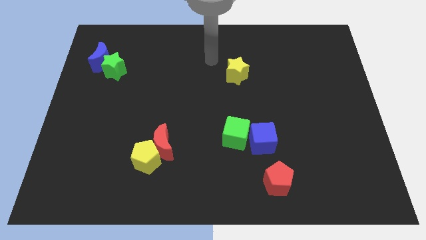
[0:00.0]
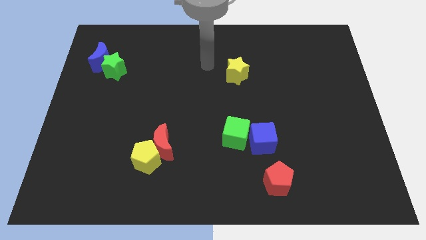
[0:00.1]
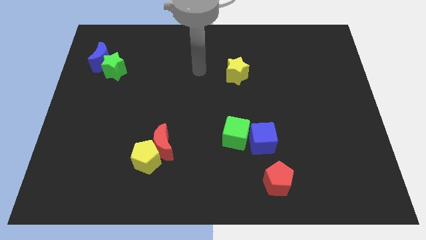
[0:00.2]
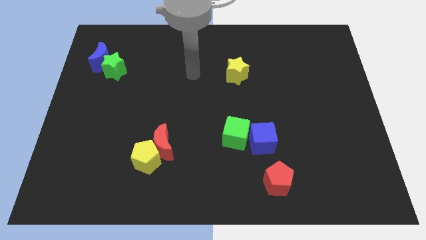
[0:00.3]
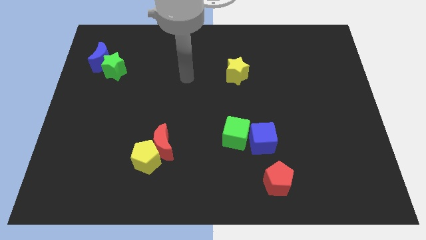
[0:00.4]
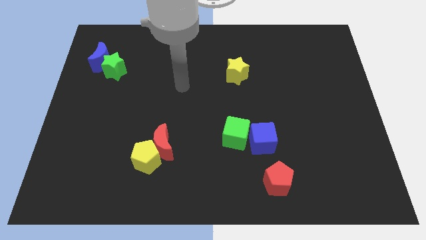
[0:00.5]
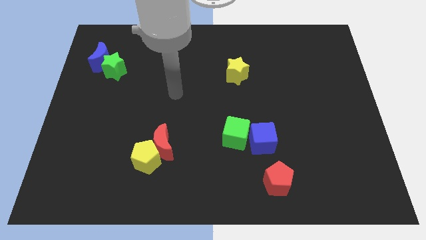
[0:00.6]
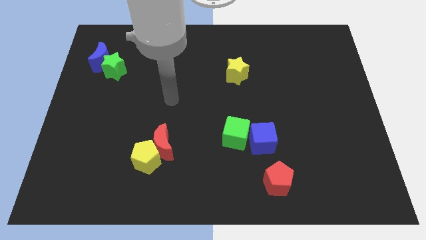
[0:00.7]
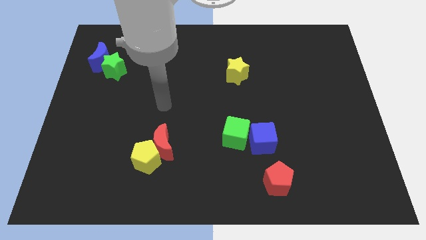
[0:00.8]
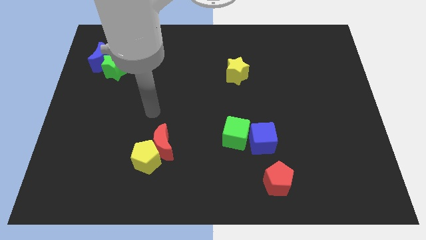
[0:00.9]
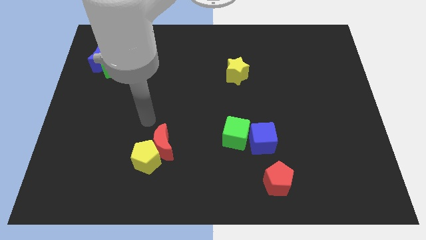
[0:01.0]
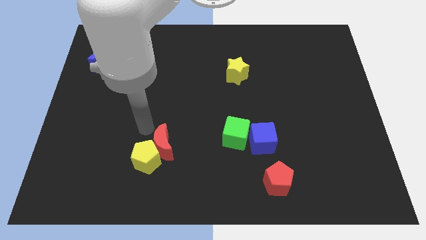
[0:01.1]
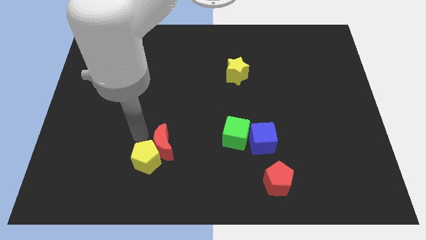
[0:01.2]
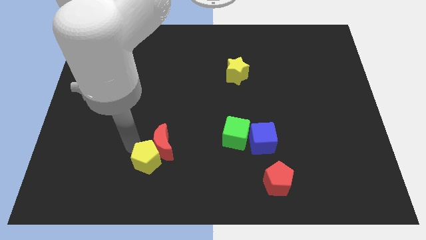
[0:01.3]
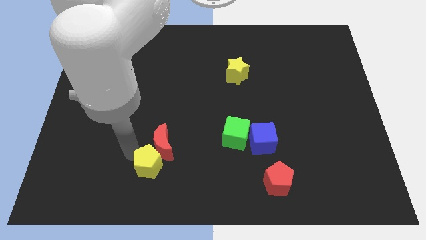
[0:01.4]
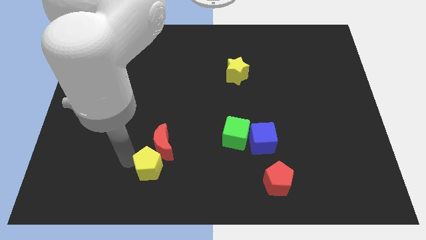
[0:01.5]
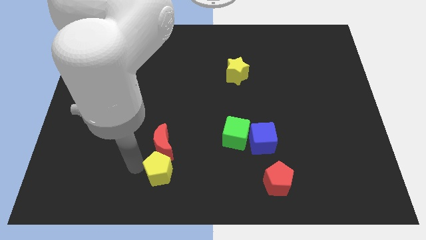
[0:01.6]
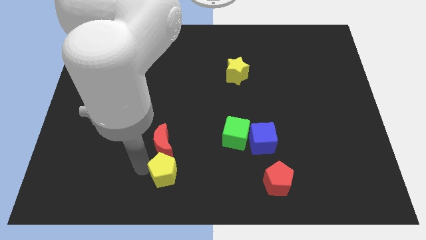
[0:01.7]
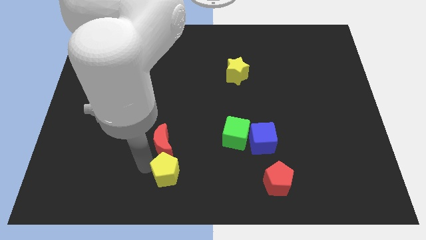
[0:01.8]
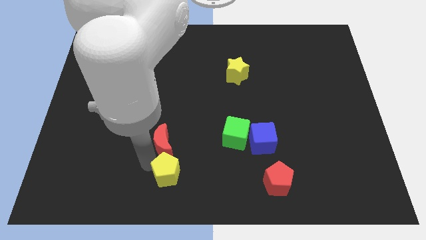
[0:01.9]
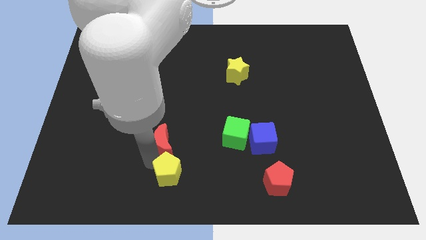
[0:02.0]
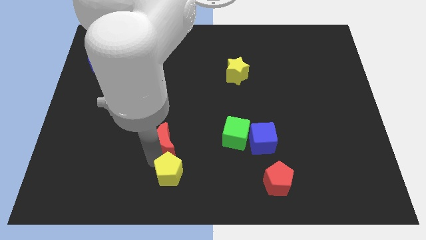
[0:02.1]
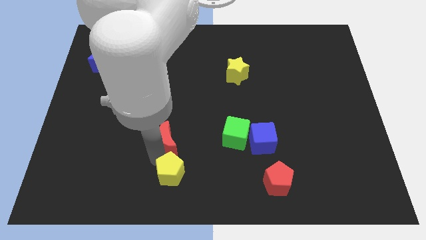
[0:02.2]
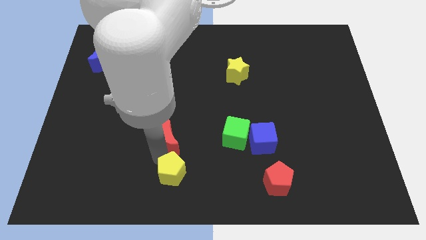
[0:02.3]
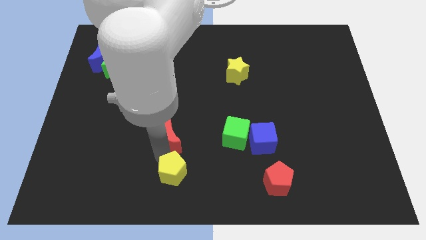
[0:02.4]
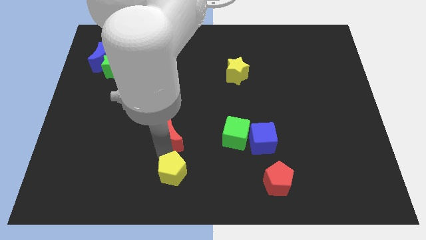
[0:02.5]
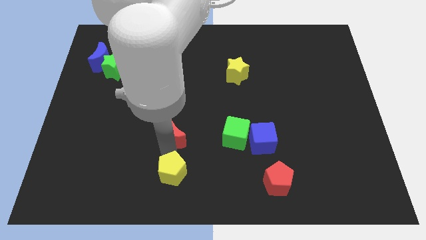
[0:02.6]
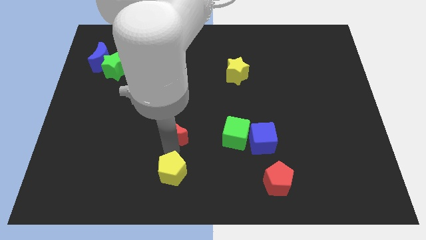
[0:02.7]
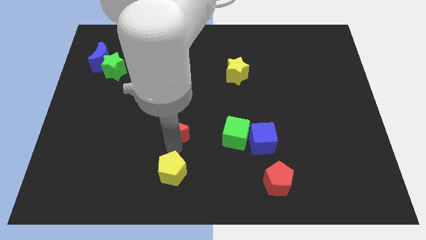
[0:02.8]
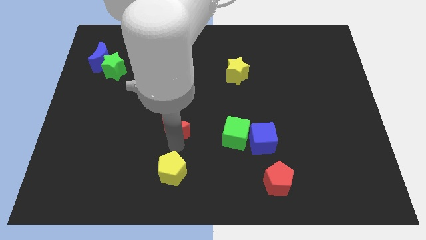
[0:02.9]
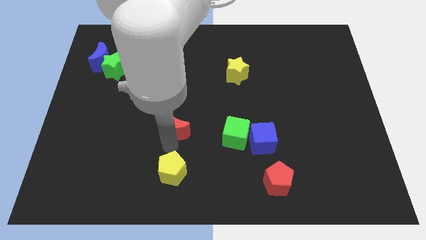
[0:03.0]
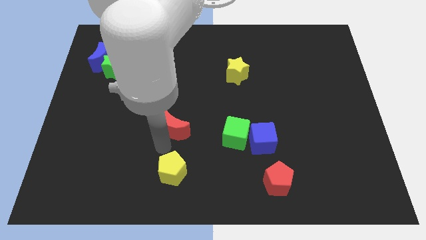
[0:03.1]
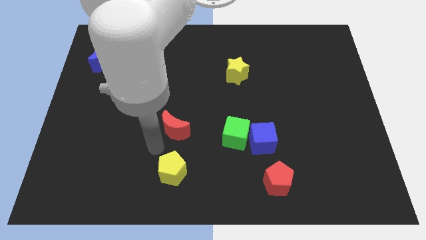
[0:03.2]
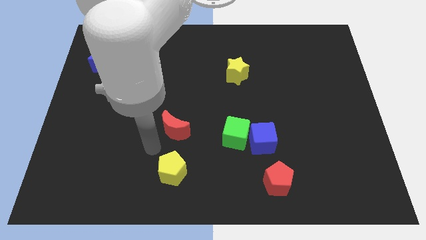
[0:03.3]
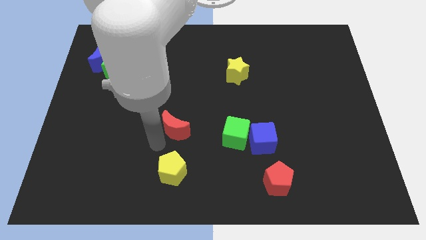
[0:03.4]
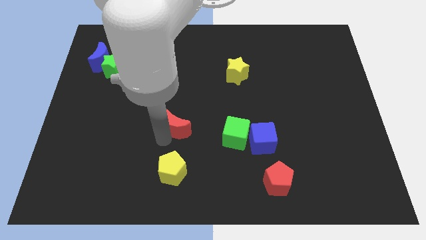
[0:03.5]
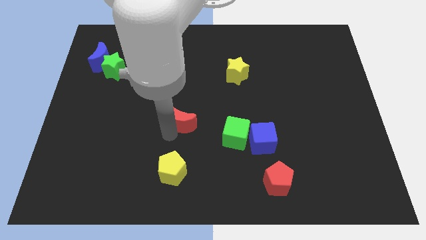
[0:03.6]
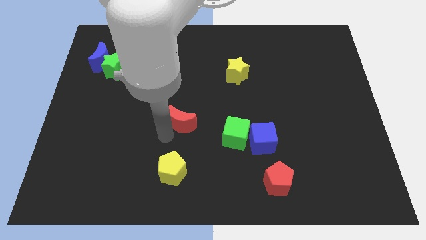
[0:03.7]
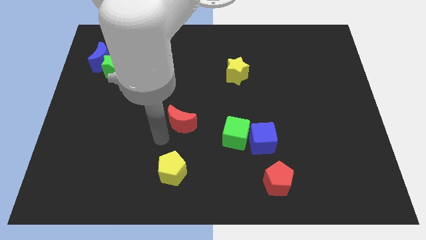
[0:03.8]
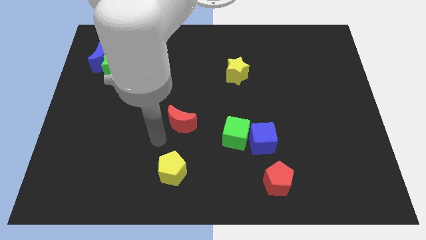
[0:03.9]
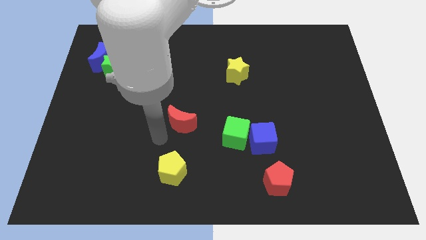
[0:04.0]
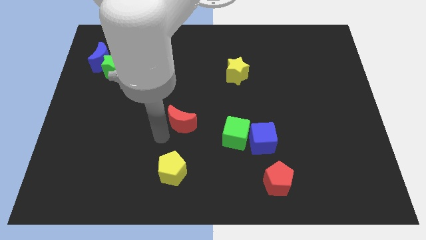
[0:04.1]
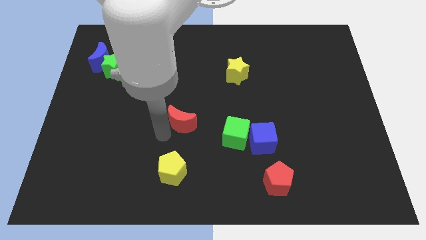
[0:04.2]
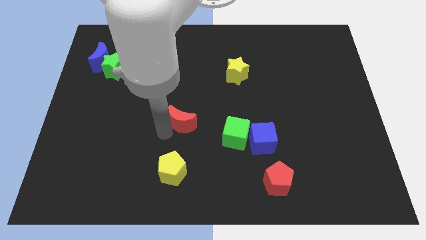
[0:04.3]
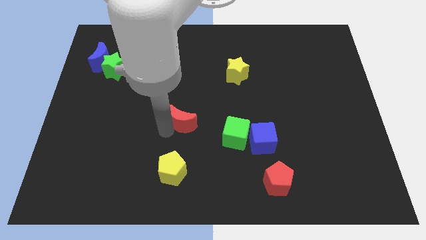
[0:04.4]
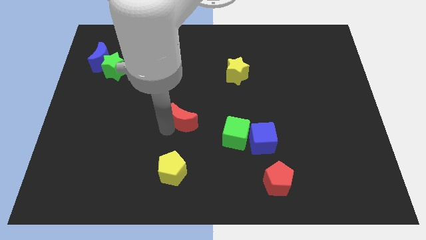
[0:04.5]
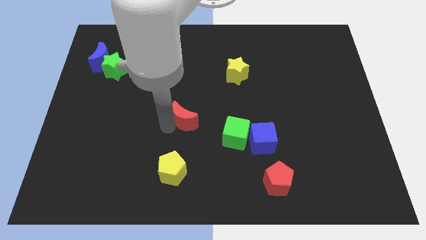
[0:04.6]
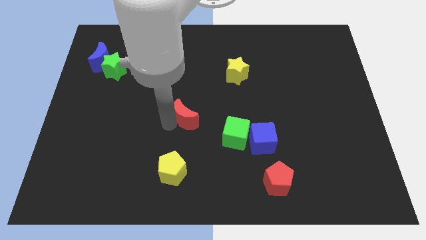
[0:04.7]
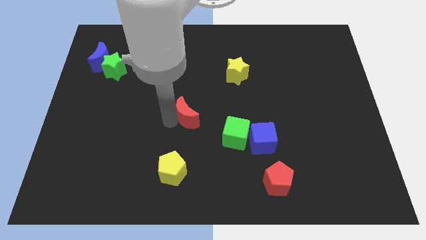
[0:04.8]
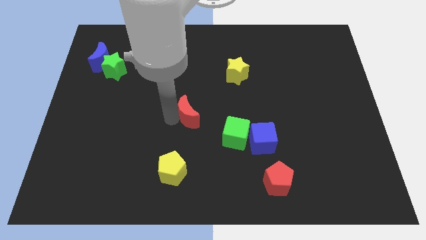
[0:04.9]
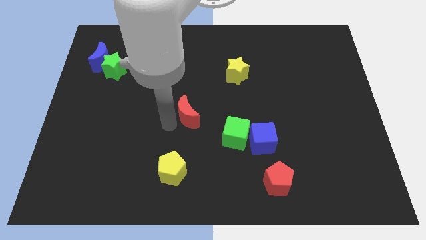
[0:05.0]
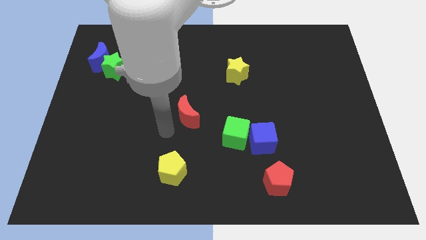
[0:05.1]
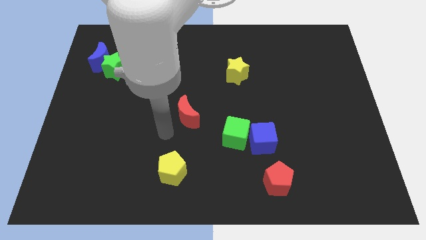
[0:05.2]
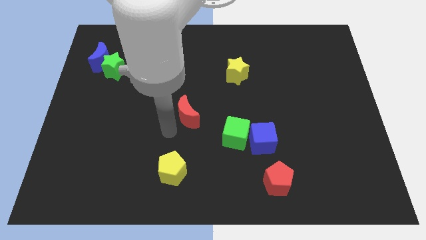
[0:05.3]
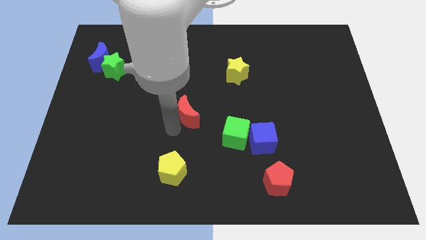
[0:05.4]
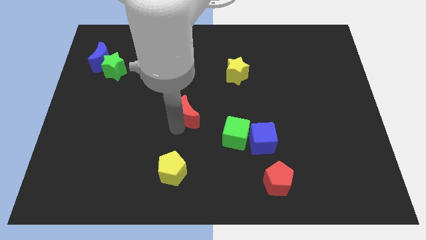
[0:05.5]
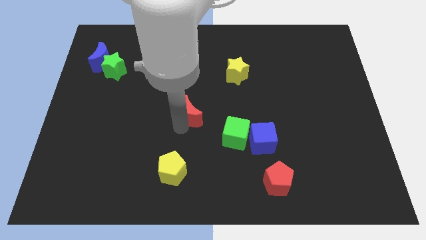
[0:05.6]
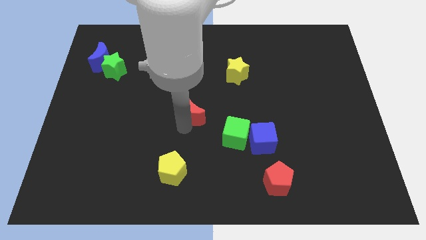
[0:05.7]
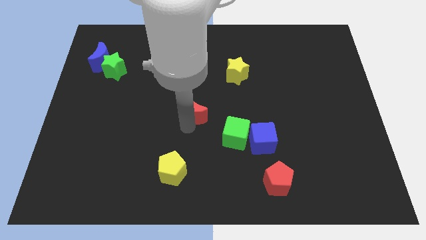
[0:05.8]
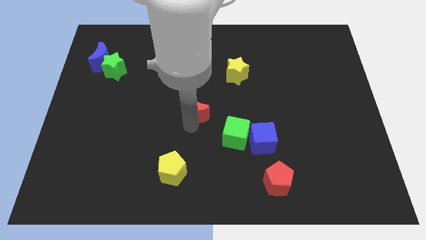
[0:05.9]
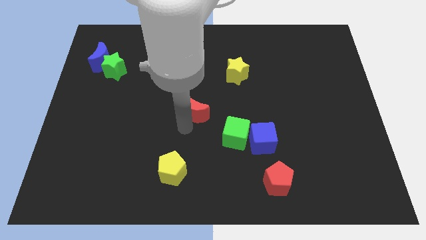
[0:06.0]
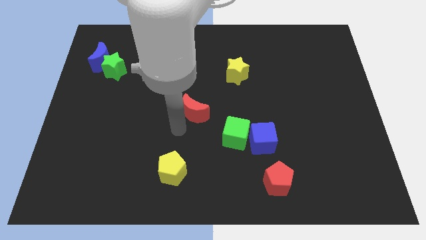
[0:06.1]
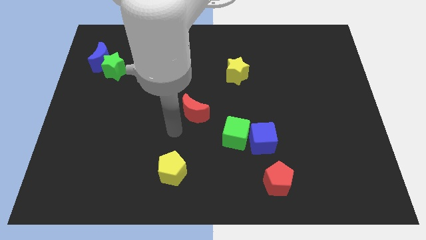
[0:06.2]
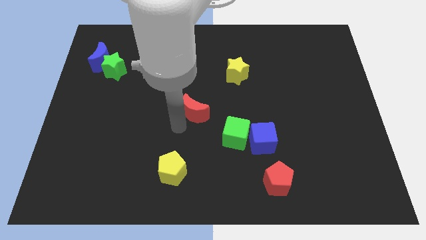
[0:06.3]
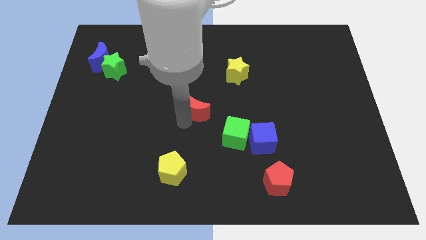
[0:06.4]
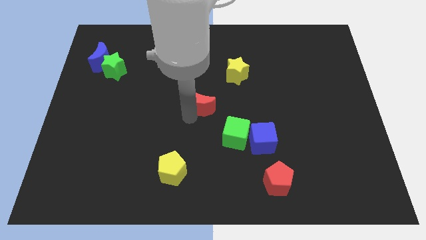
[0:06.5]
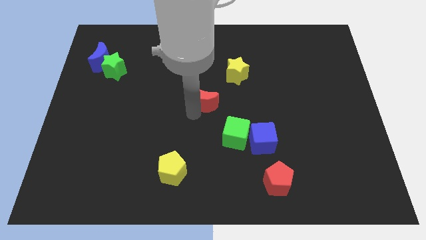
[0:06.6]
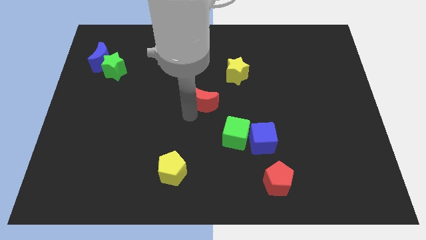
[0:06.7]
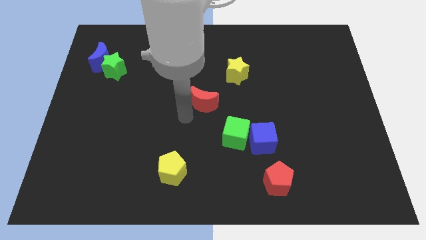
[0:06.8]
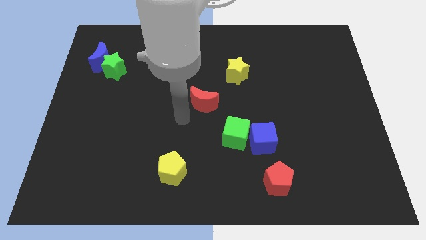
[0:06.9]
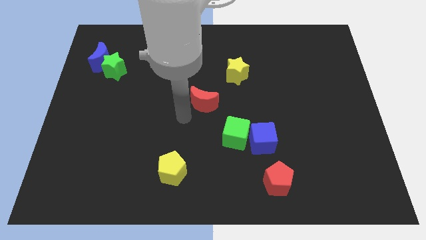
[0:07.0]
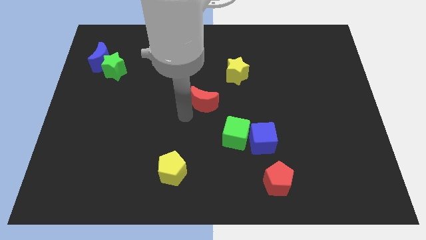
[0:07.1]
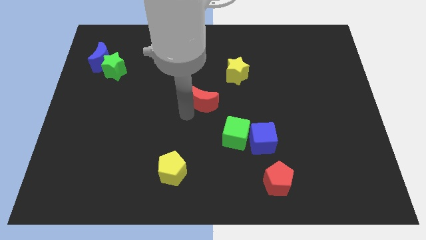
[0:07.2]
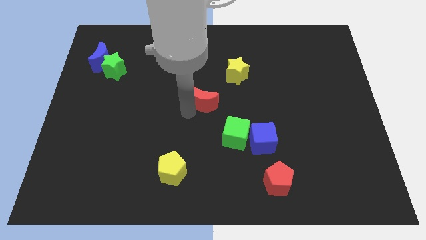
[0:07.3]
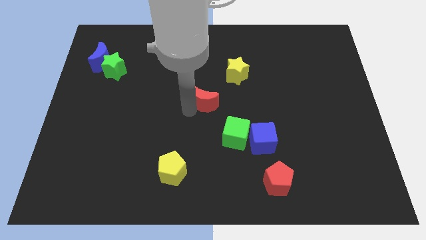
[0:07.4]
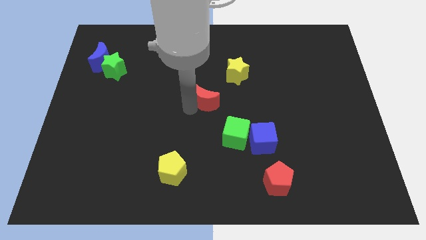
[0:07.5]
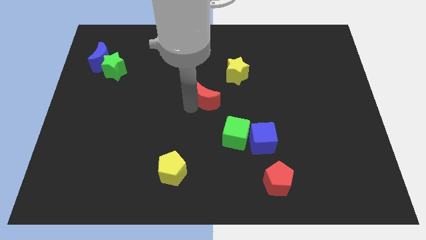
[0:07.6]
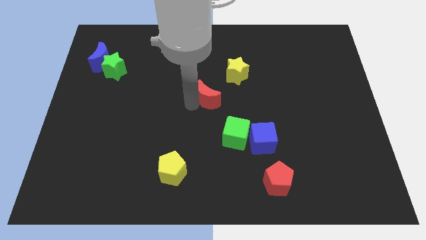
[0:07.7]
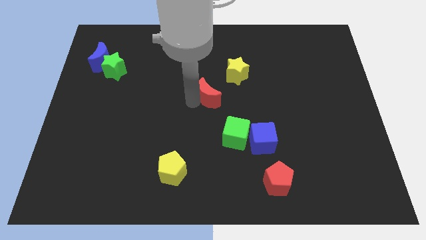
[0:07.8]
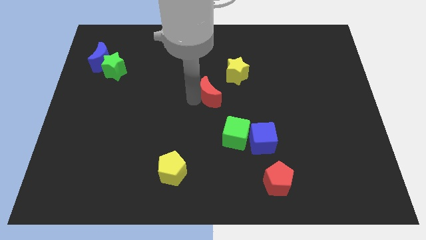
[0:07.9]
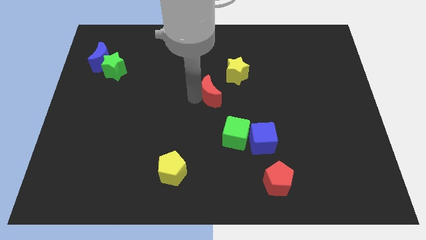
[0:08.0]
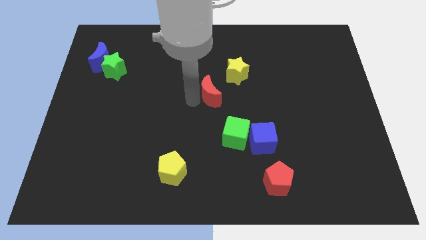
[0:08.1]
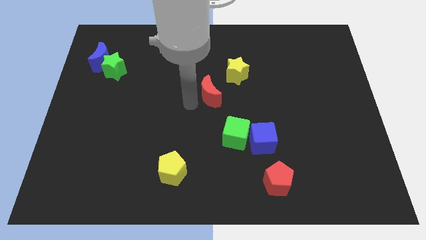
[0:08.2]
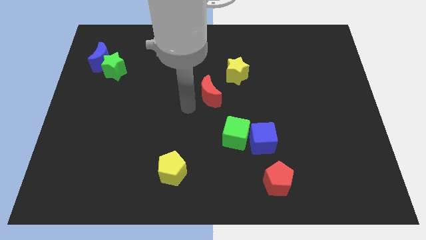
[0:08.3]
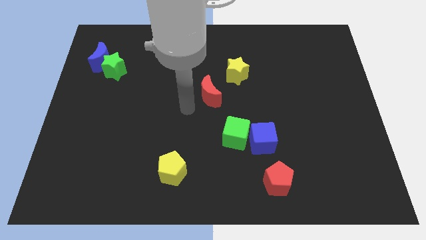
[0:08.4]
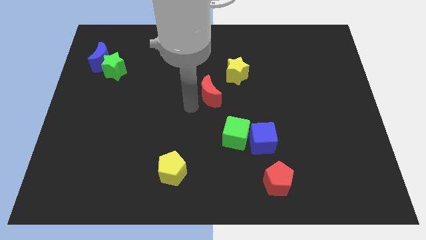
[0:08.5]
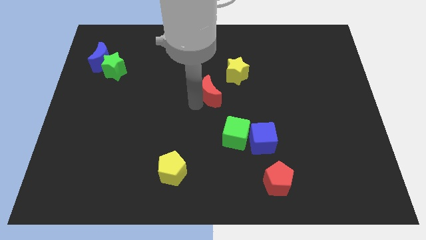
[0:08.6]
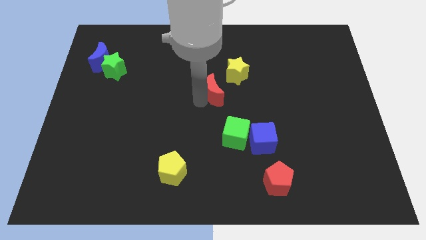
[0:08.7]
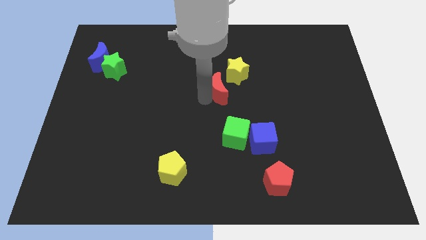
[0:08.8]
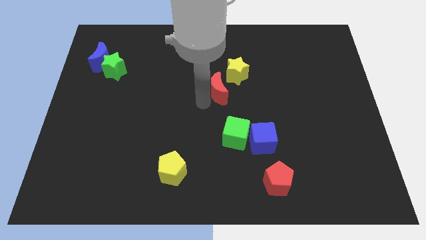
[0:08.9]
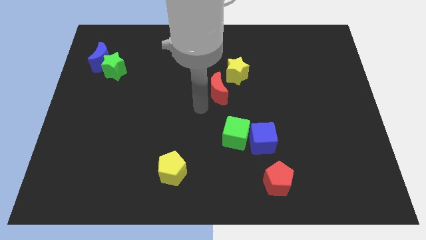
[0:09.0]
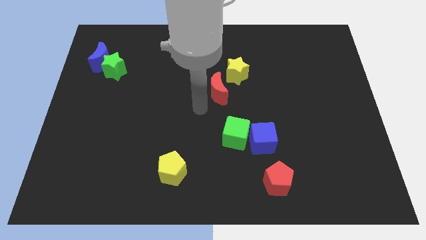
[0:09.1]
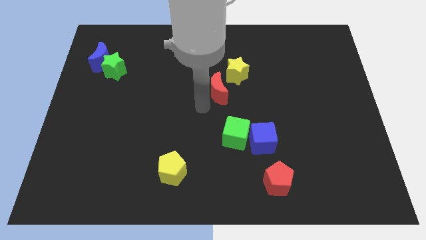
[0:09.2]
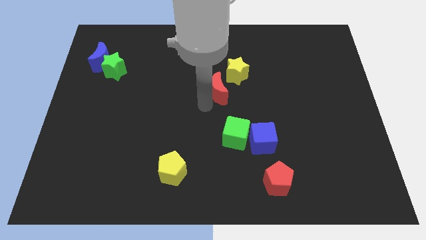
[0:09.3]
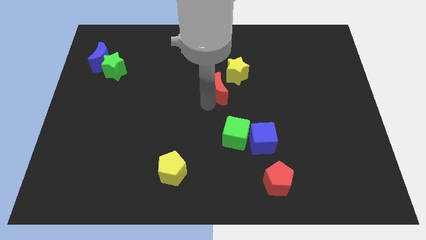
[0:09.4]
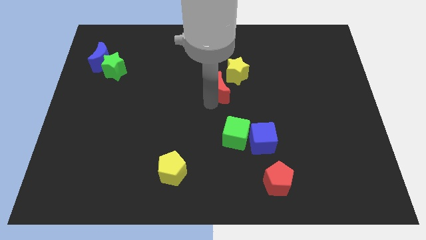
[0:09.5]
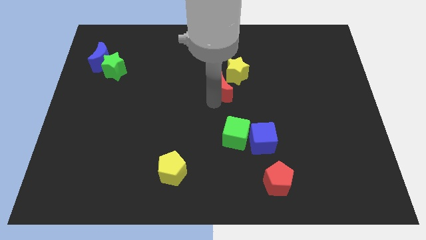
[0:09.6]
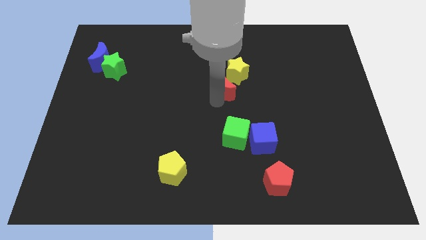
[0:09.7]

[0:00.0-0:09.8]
put the red moon towards the yellow star
